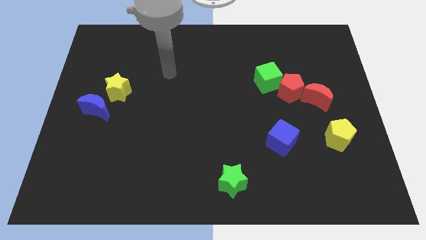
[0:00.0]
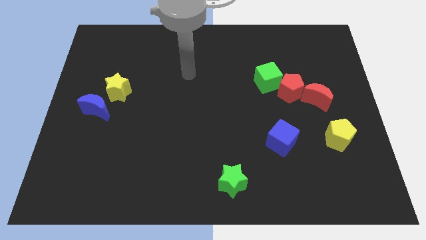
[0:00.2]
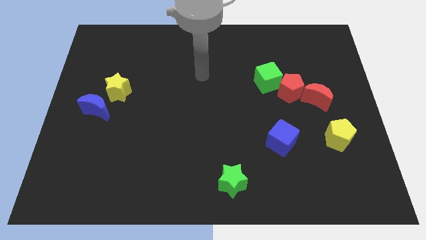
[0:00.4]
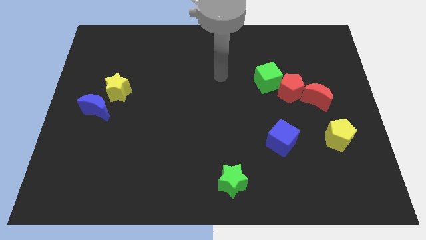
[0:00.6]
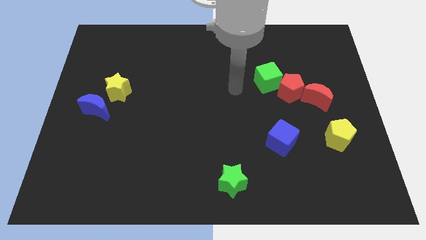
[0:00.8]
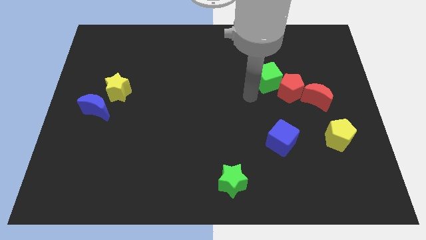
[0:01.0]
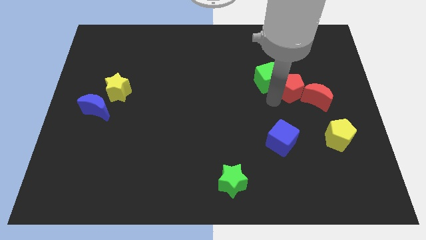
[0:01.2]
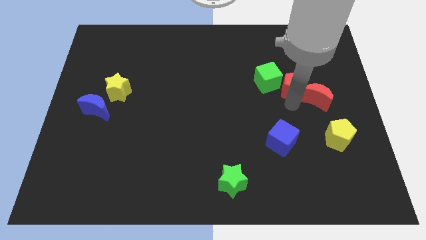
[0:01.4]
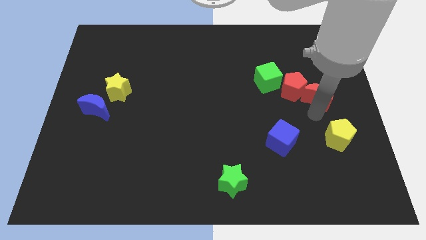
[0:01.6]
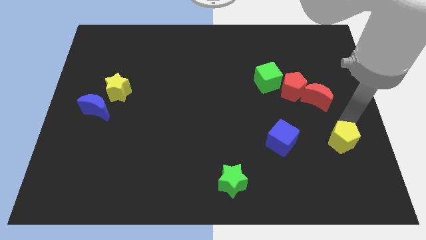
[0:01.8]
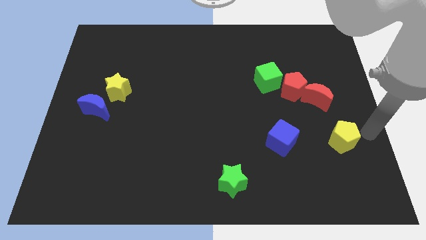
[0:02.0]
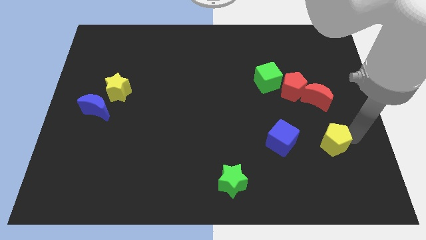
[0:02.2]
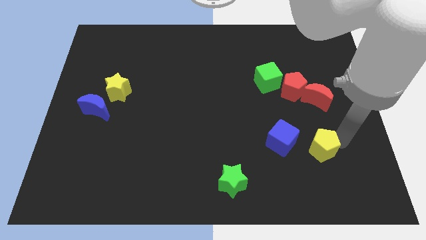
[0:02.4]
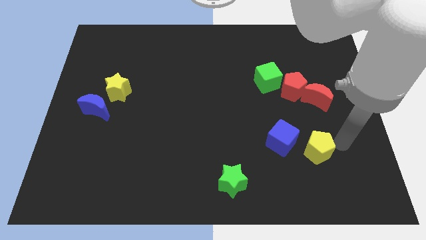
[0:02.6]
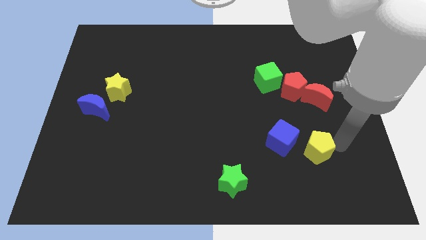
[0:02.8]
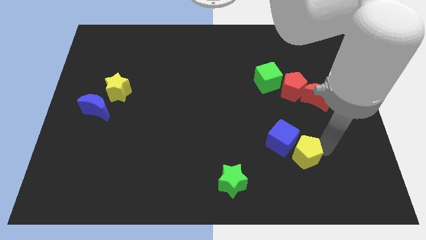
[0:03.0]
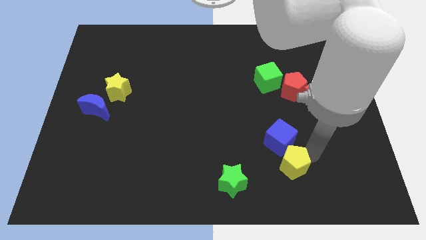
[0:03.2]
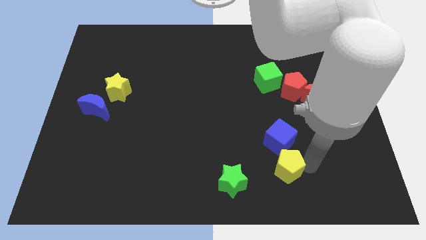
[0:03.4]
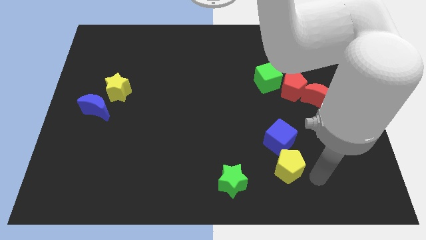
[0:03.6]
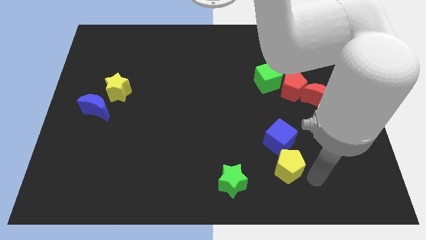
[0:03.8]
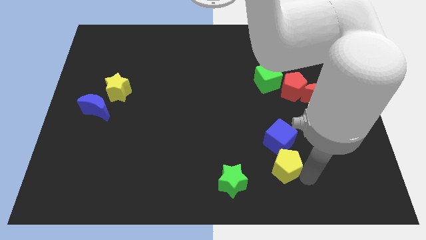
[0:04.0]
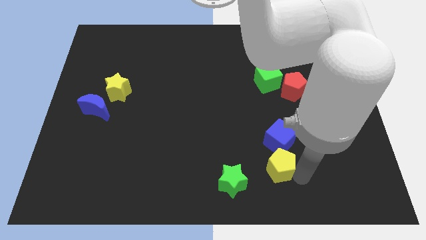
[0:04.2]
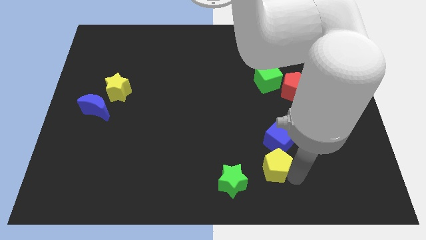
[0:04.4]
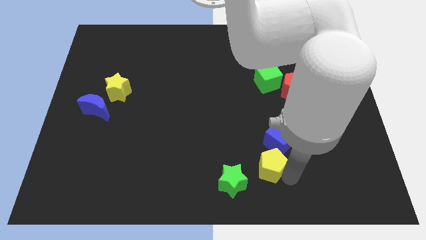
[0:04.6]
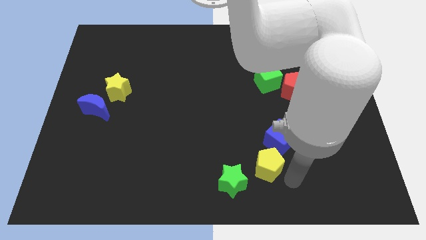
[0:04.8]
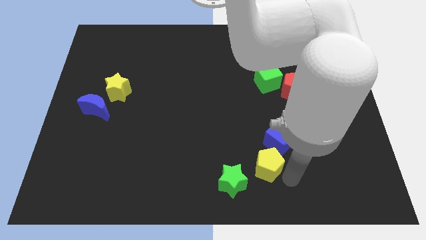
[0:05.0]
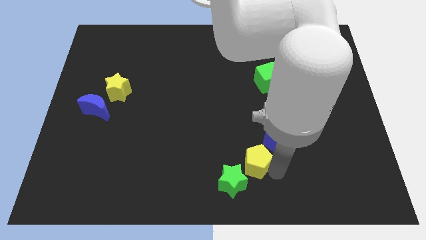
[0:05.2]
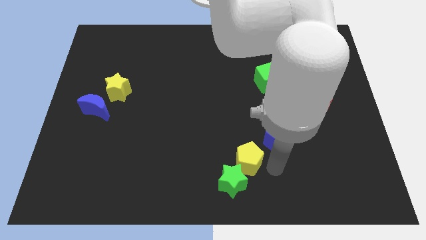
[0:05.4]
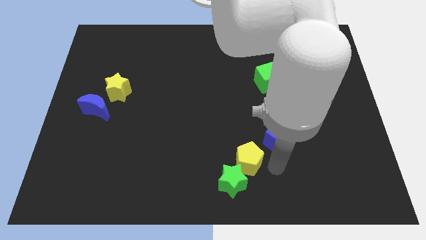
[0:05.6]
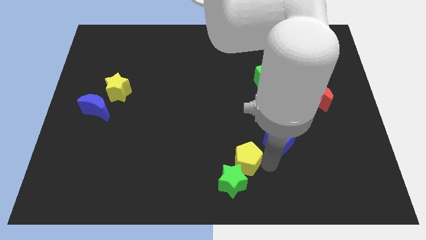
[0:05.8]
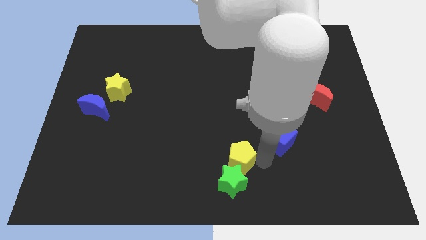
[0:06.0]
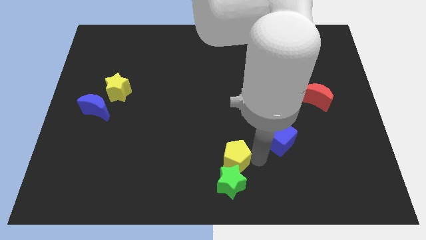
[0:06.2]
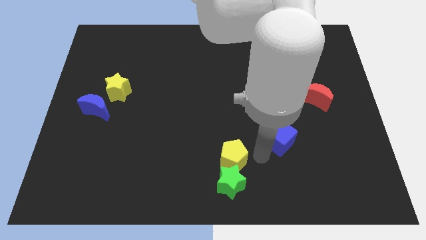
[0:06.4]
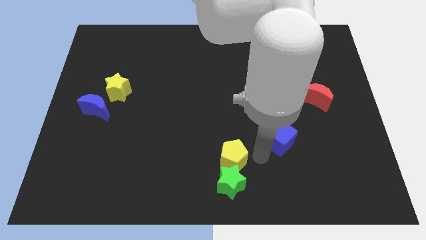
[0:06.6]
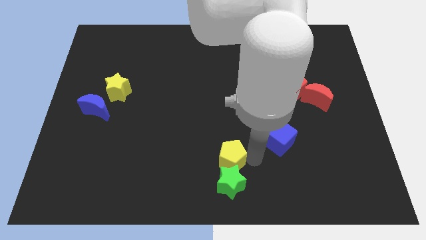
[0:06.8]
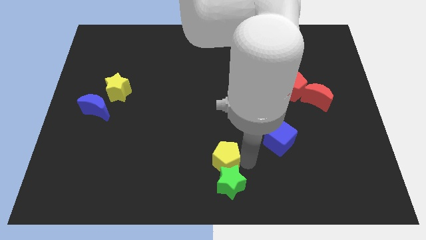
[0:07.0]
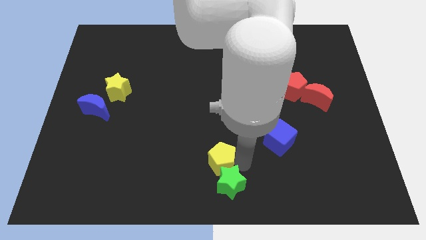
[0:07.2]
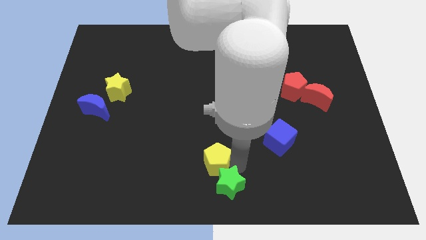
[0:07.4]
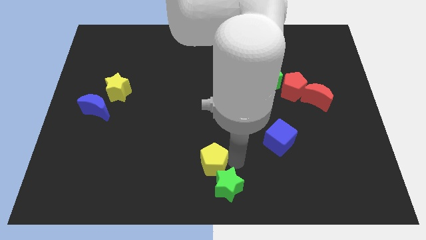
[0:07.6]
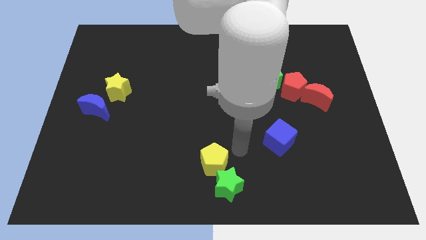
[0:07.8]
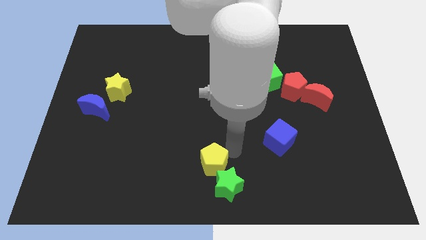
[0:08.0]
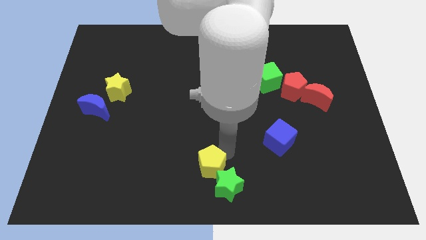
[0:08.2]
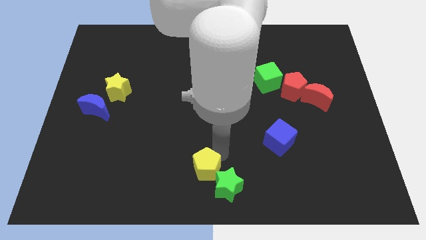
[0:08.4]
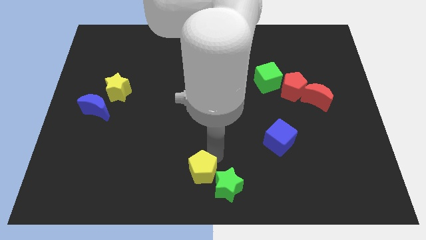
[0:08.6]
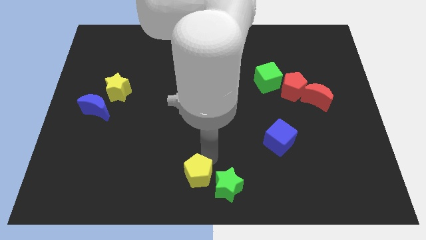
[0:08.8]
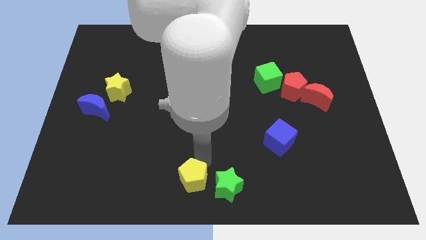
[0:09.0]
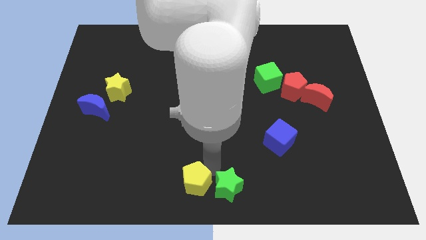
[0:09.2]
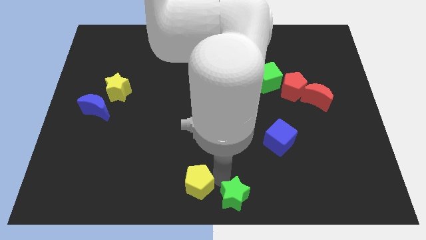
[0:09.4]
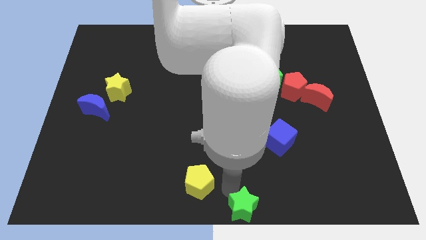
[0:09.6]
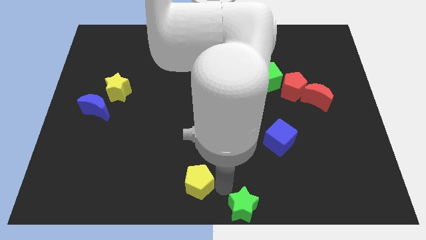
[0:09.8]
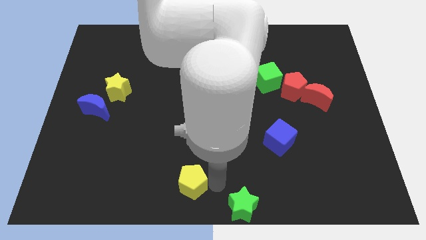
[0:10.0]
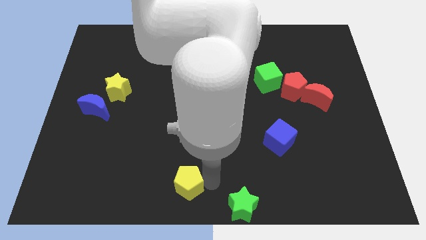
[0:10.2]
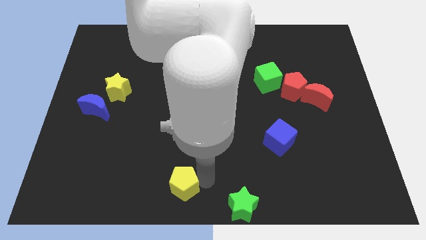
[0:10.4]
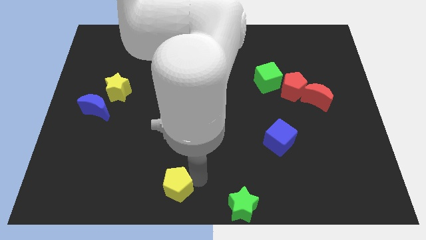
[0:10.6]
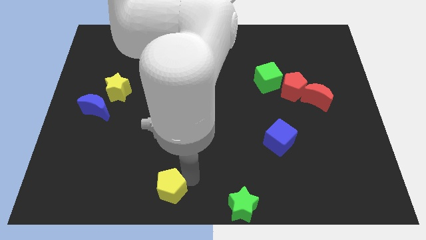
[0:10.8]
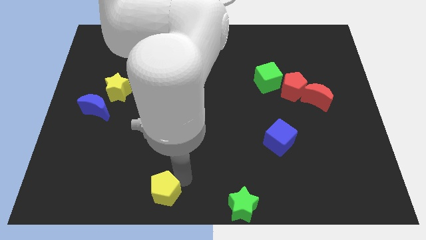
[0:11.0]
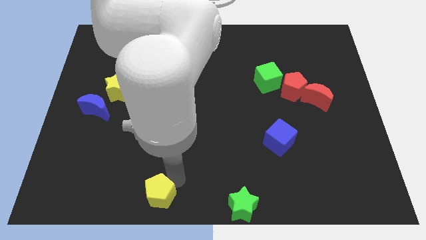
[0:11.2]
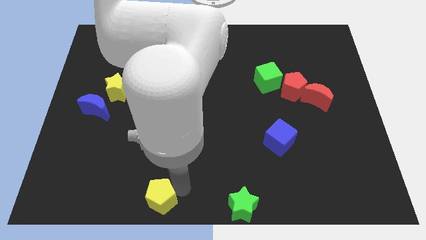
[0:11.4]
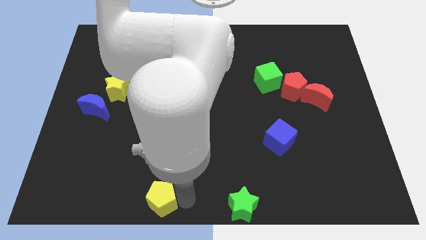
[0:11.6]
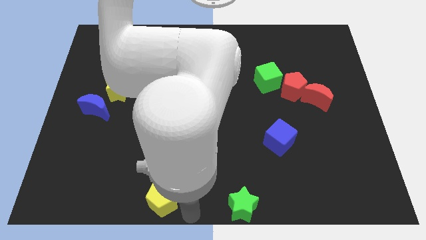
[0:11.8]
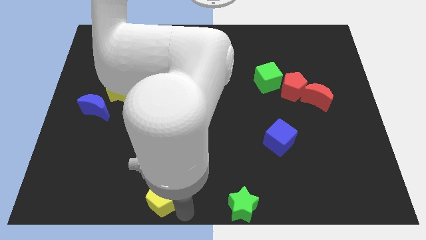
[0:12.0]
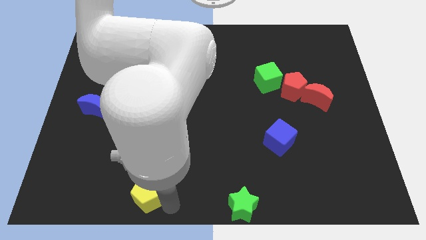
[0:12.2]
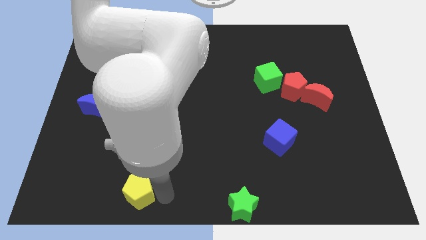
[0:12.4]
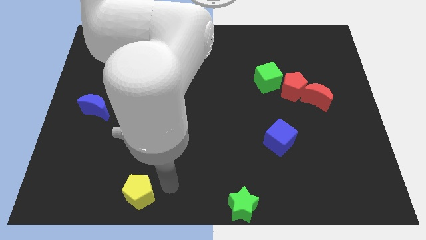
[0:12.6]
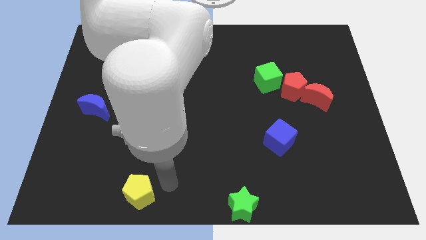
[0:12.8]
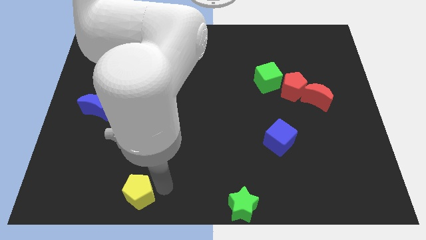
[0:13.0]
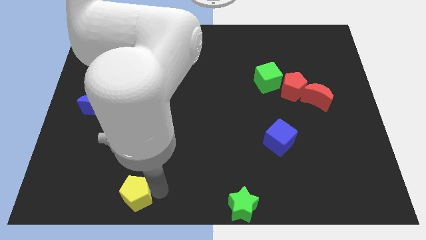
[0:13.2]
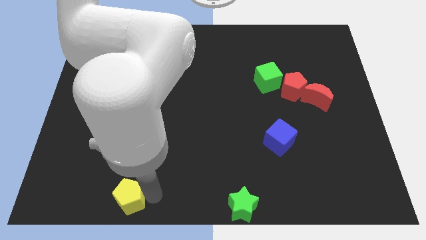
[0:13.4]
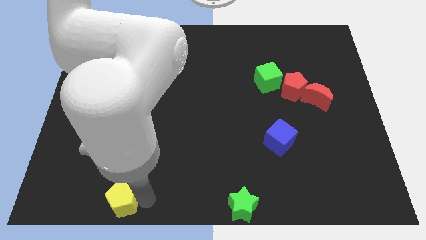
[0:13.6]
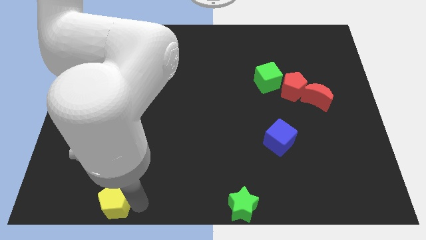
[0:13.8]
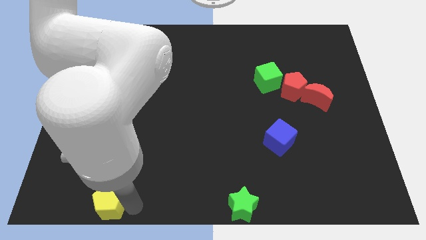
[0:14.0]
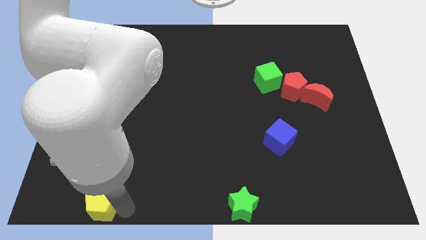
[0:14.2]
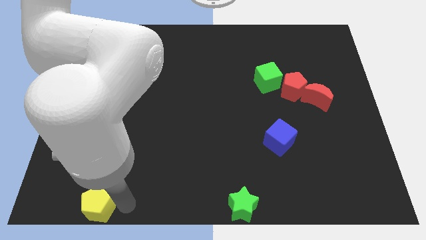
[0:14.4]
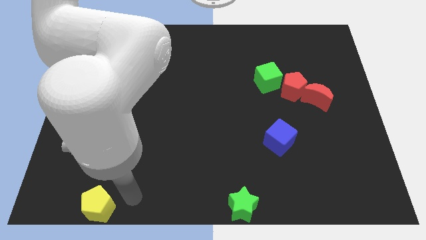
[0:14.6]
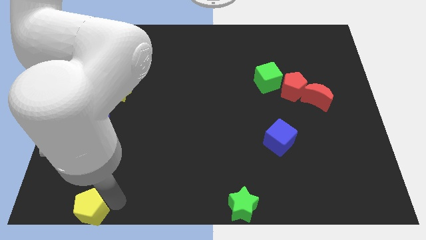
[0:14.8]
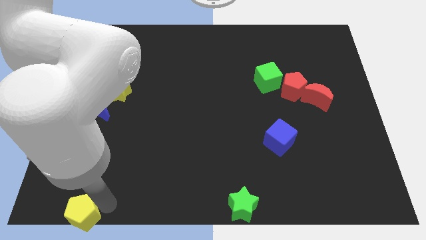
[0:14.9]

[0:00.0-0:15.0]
move the yellow pentagon to the lower left corner
